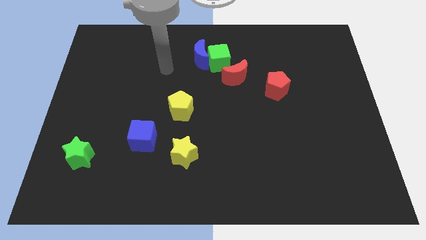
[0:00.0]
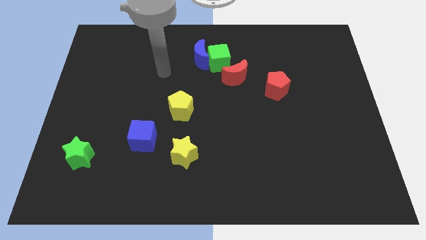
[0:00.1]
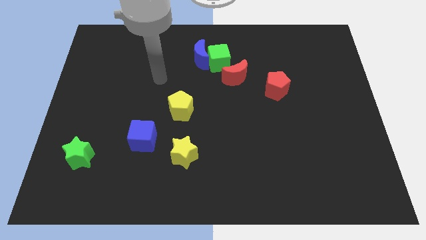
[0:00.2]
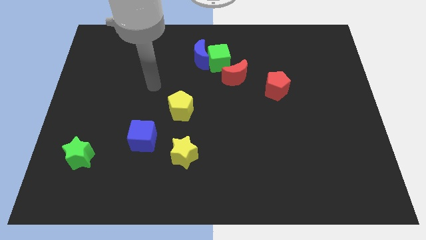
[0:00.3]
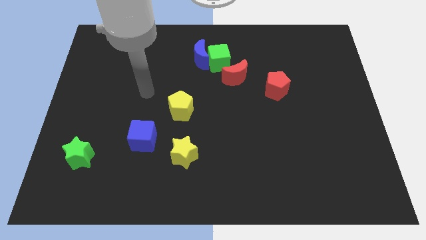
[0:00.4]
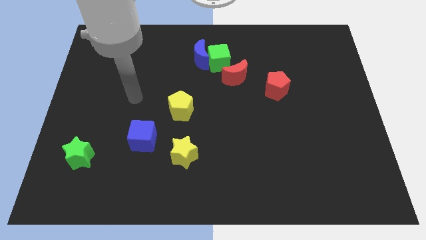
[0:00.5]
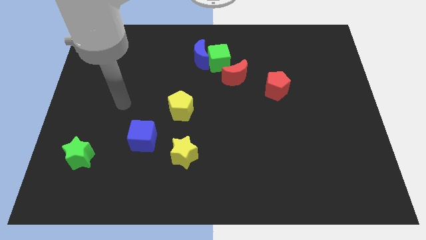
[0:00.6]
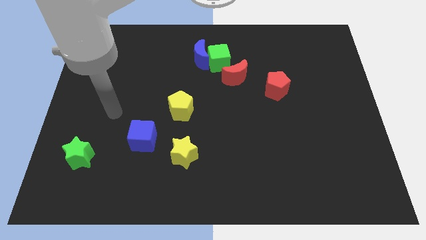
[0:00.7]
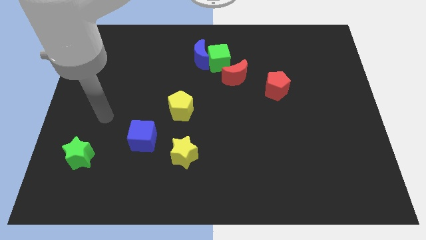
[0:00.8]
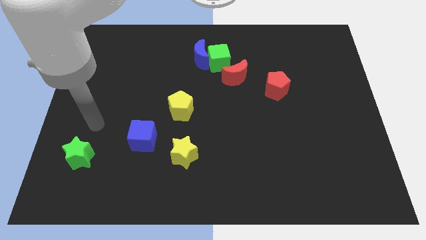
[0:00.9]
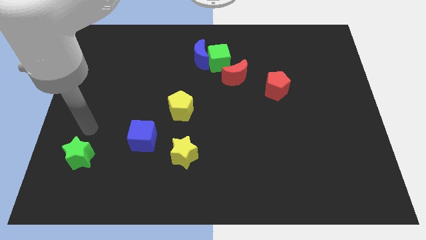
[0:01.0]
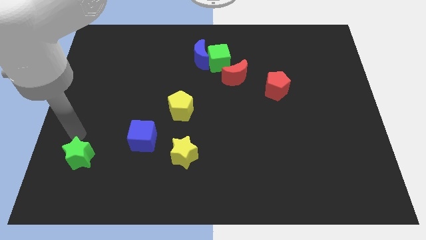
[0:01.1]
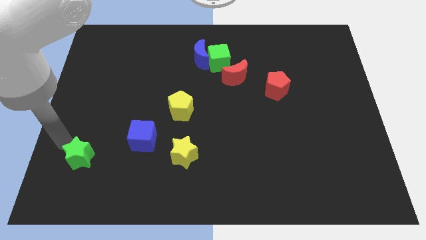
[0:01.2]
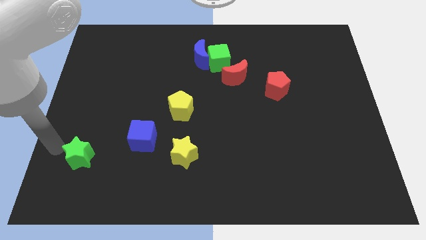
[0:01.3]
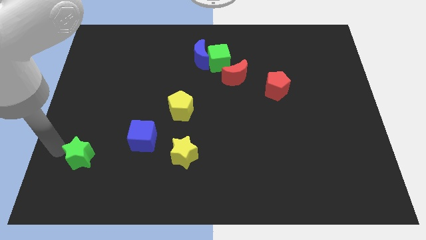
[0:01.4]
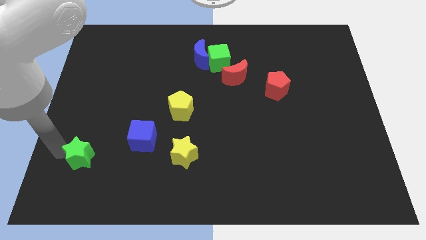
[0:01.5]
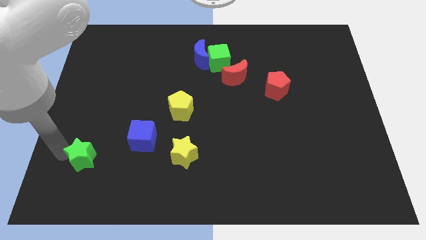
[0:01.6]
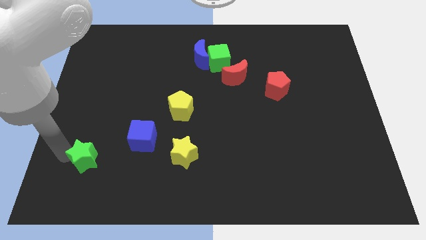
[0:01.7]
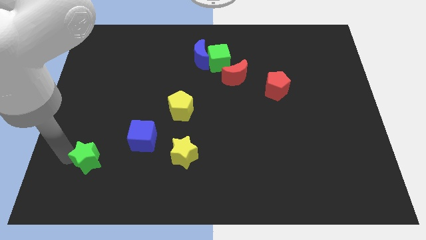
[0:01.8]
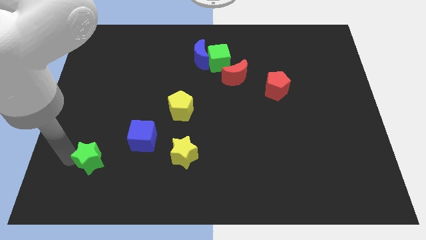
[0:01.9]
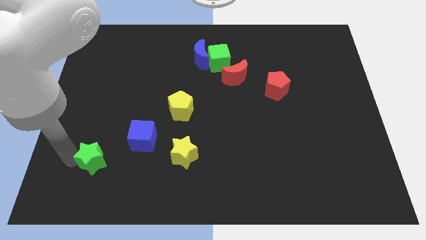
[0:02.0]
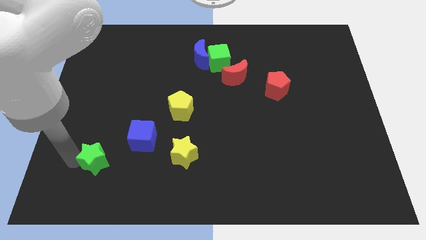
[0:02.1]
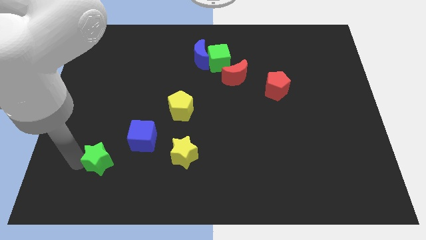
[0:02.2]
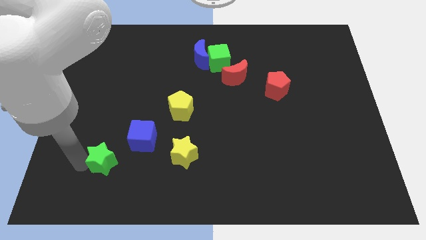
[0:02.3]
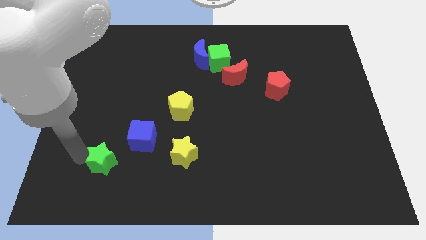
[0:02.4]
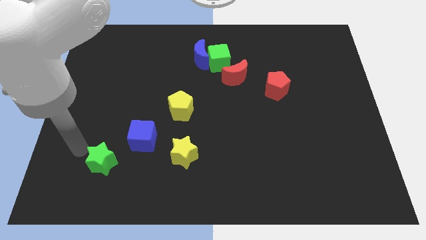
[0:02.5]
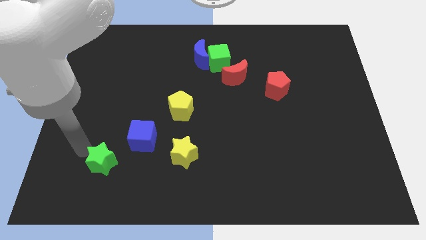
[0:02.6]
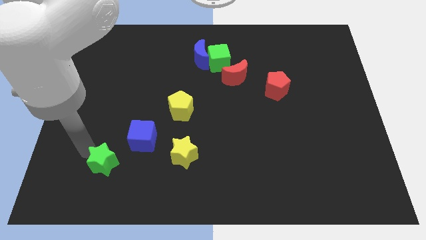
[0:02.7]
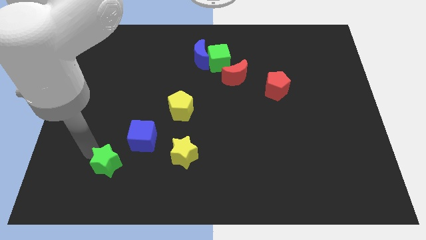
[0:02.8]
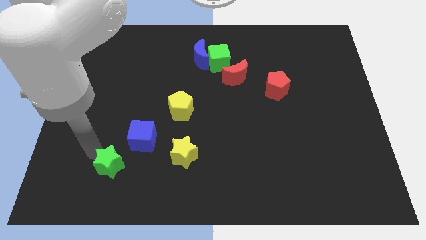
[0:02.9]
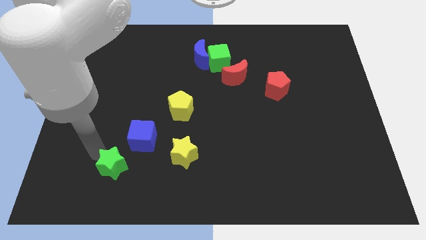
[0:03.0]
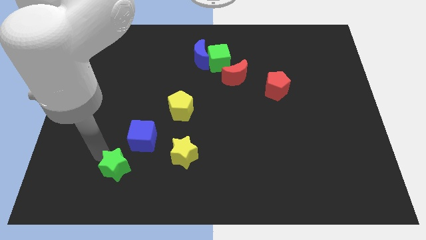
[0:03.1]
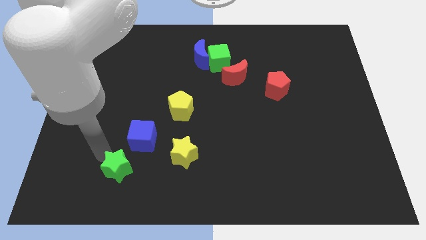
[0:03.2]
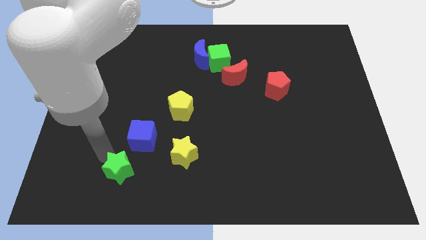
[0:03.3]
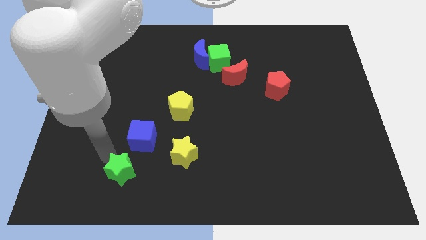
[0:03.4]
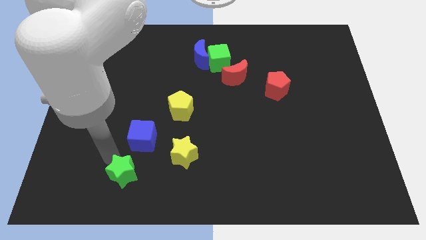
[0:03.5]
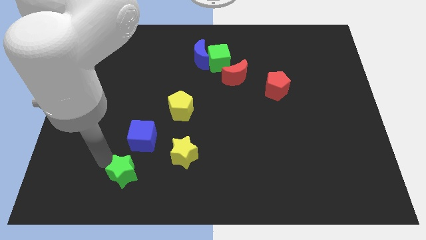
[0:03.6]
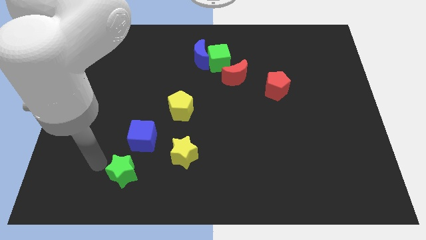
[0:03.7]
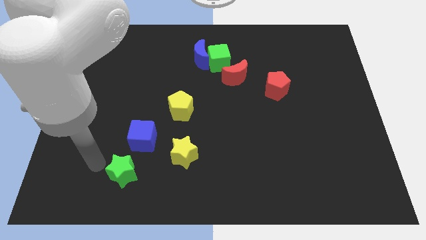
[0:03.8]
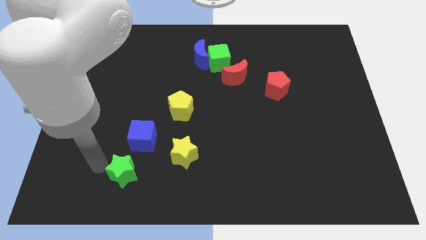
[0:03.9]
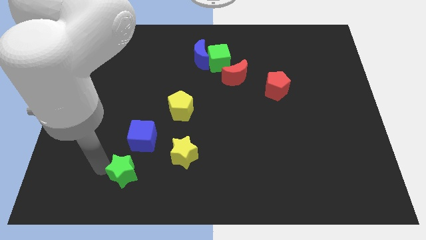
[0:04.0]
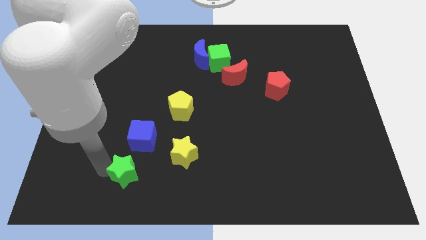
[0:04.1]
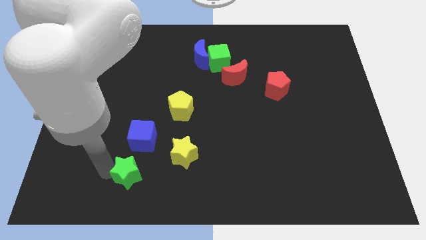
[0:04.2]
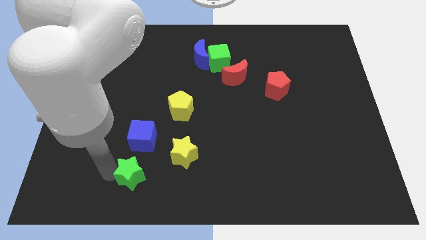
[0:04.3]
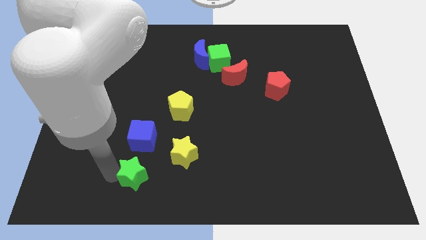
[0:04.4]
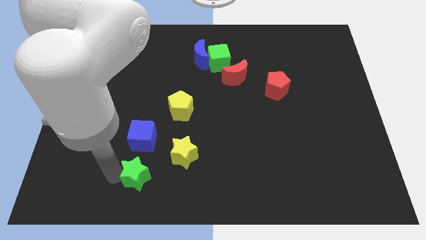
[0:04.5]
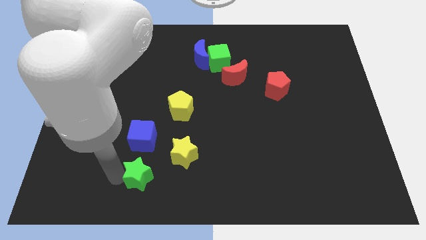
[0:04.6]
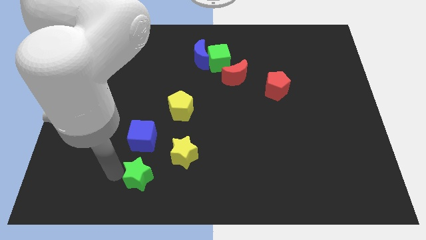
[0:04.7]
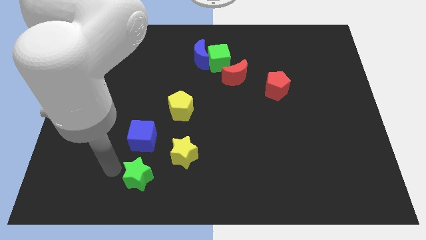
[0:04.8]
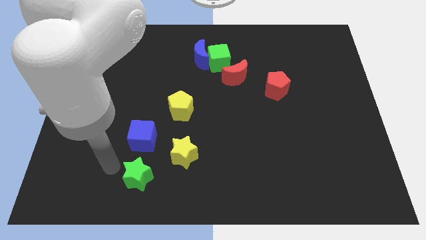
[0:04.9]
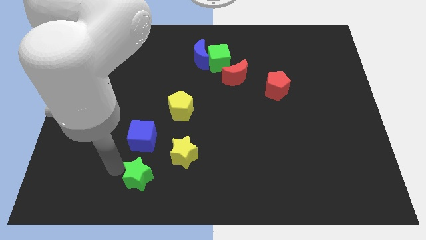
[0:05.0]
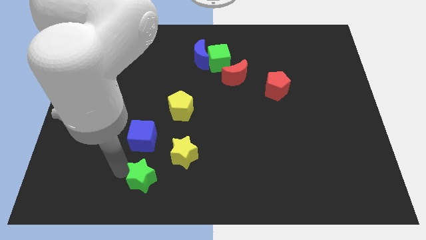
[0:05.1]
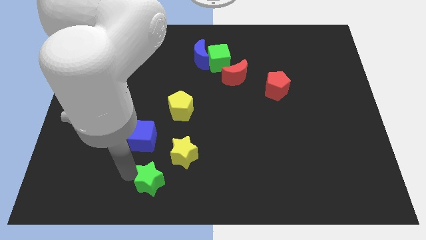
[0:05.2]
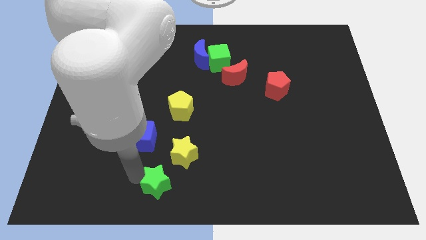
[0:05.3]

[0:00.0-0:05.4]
push the green star to the bottom side

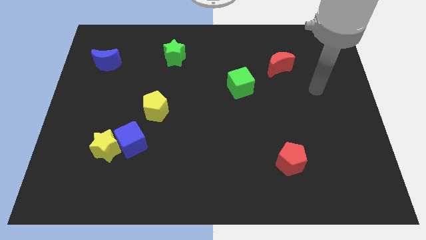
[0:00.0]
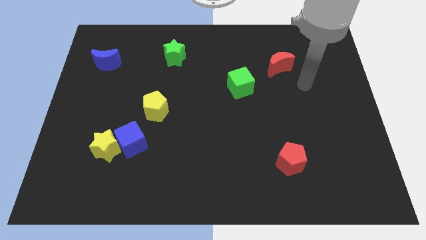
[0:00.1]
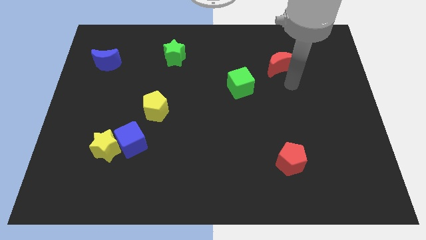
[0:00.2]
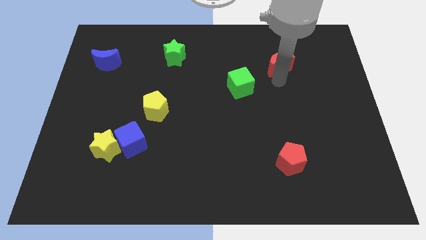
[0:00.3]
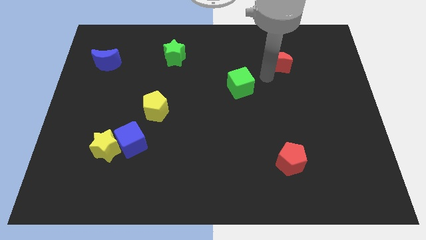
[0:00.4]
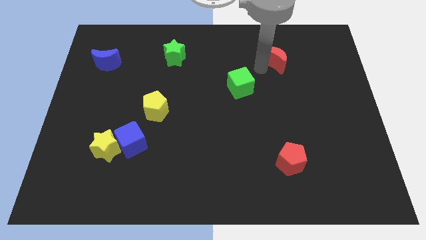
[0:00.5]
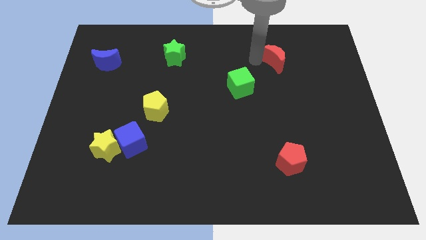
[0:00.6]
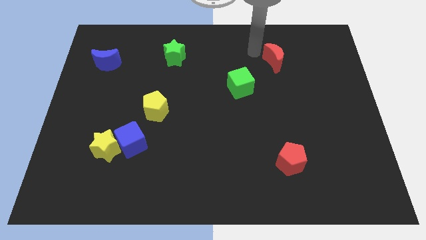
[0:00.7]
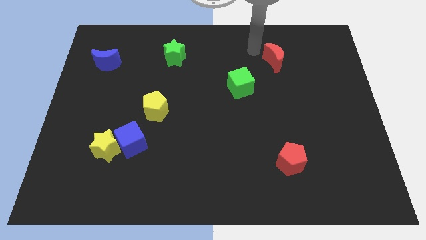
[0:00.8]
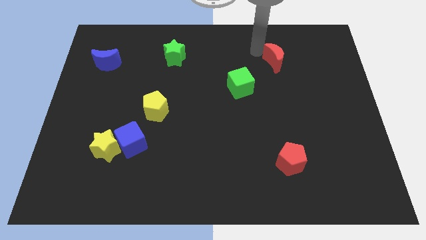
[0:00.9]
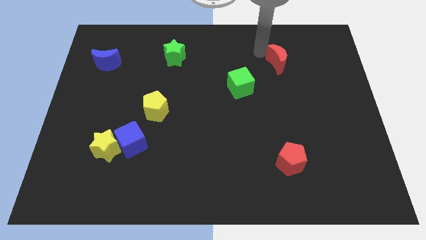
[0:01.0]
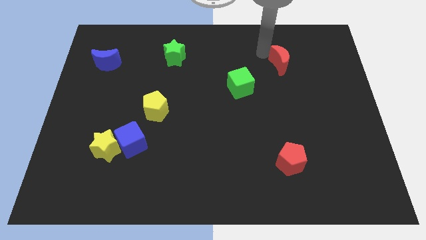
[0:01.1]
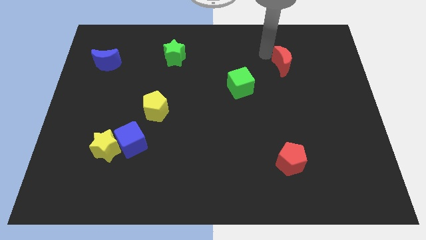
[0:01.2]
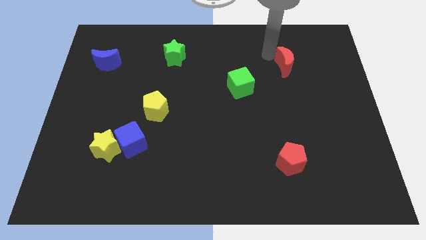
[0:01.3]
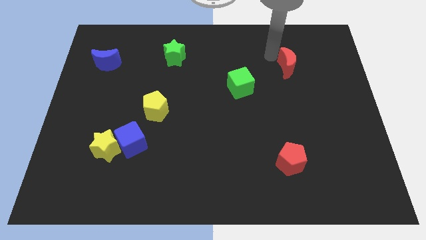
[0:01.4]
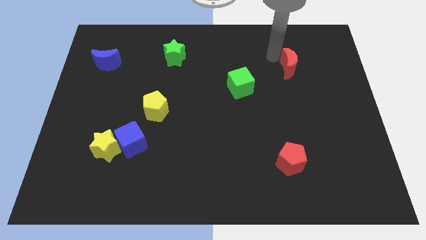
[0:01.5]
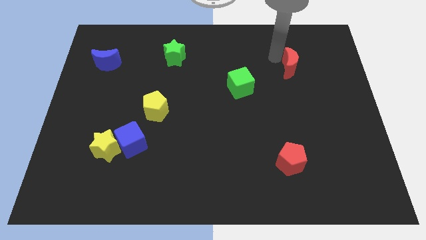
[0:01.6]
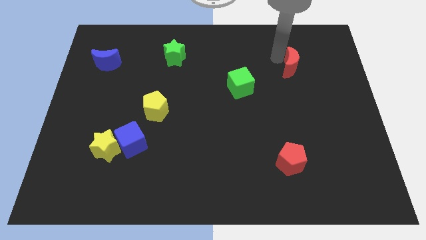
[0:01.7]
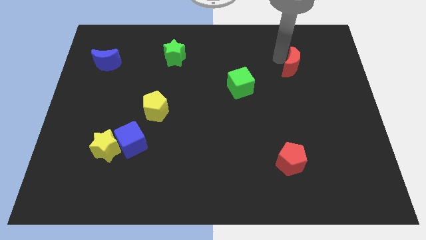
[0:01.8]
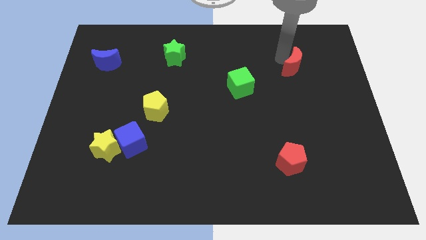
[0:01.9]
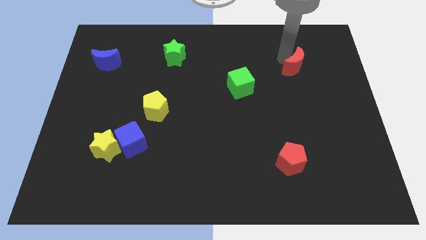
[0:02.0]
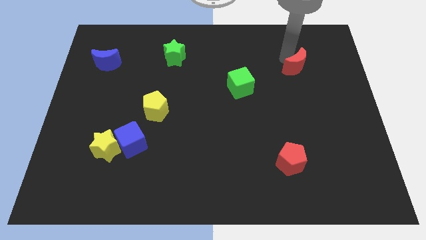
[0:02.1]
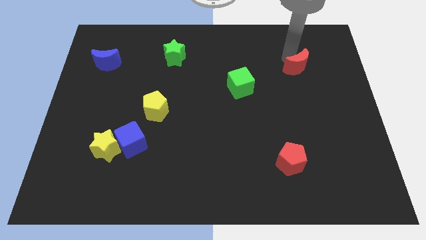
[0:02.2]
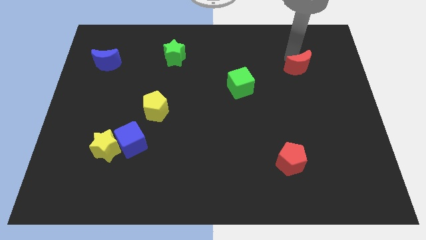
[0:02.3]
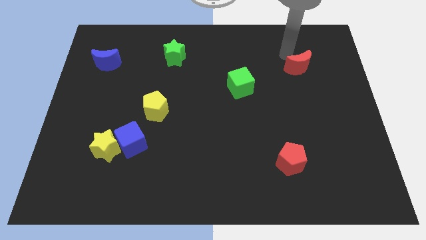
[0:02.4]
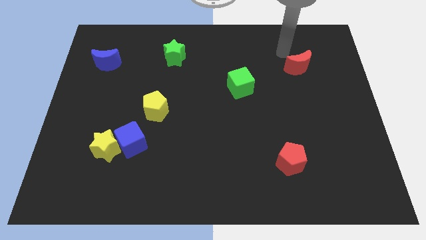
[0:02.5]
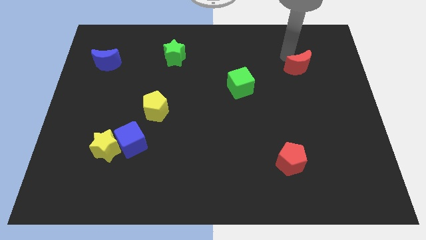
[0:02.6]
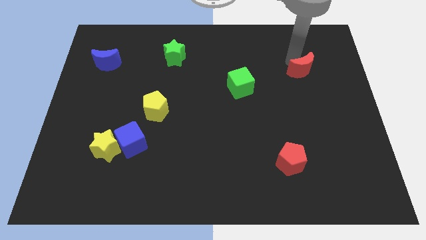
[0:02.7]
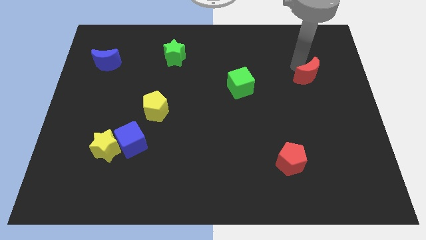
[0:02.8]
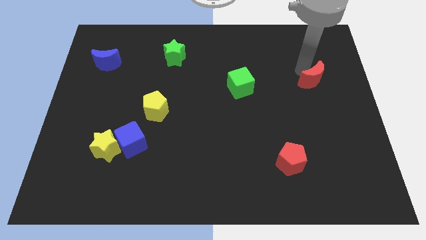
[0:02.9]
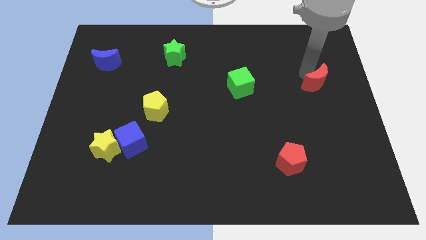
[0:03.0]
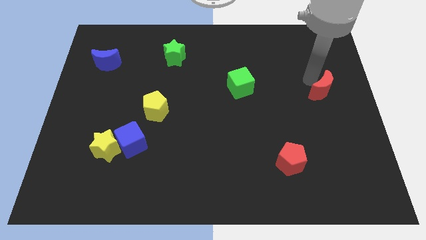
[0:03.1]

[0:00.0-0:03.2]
slide the red moon to the right side
